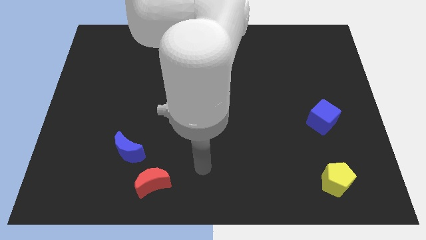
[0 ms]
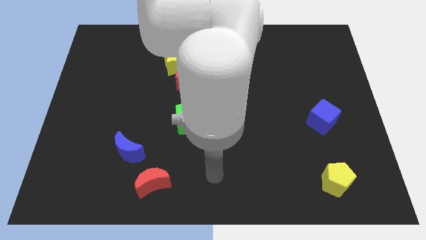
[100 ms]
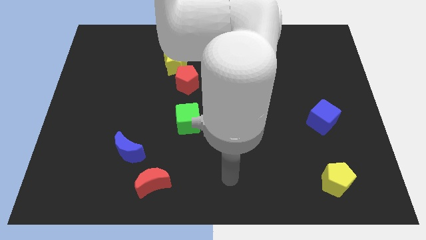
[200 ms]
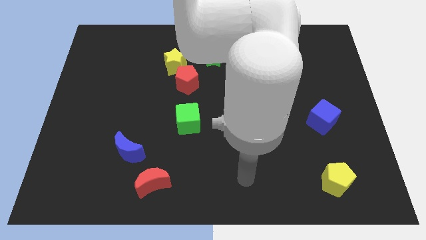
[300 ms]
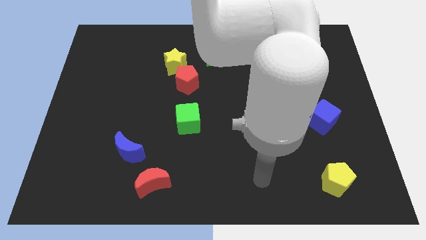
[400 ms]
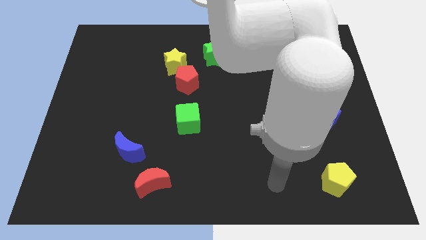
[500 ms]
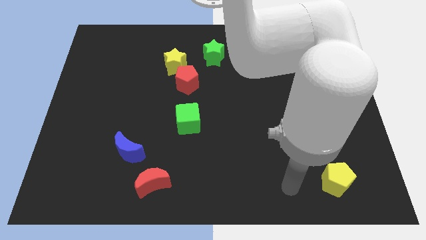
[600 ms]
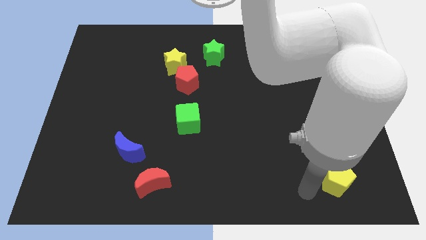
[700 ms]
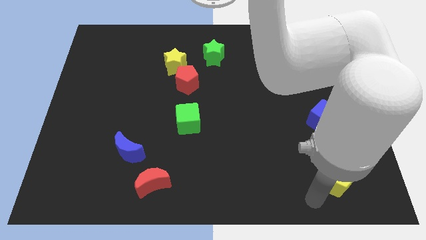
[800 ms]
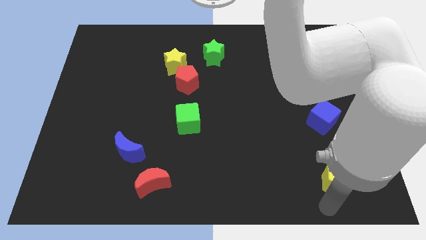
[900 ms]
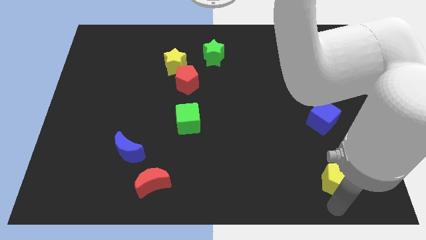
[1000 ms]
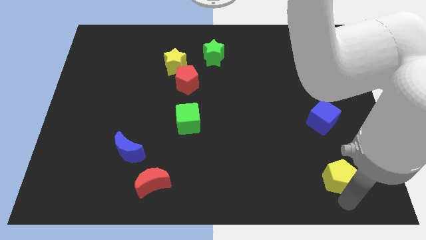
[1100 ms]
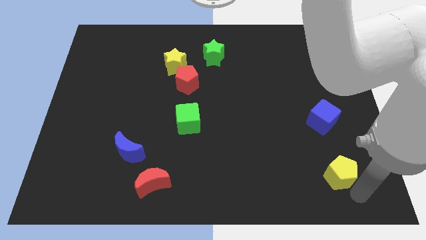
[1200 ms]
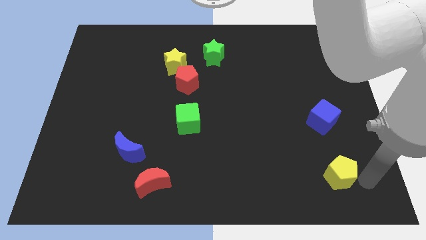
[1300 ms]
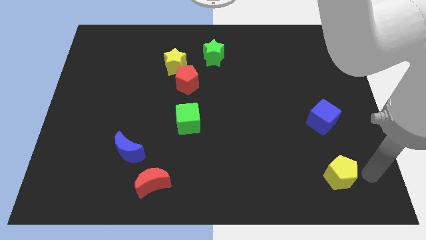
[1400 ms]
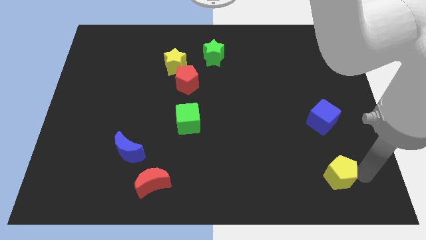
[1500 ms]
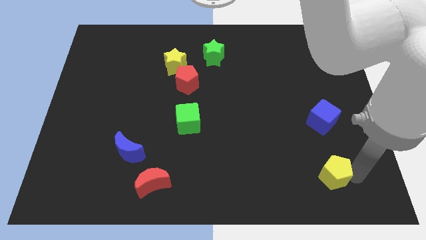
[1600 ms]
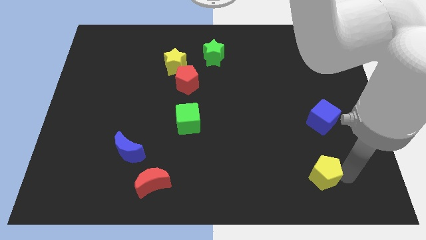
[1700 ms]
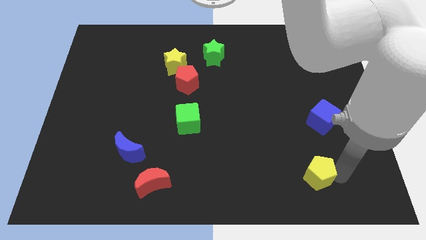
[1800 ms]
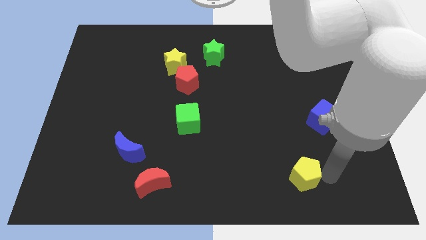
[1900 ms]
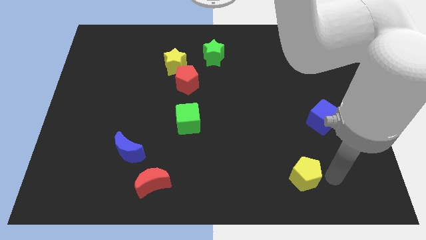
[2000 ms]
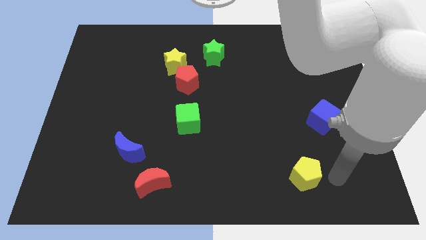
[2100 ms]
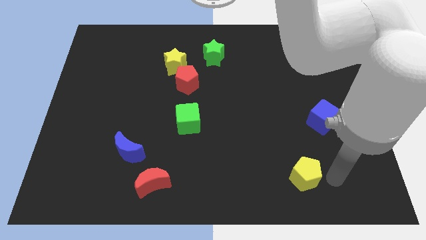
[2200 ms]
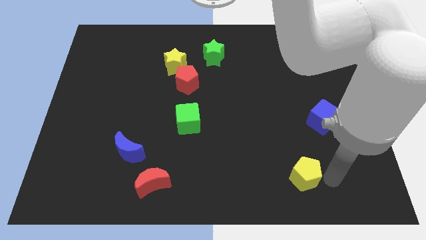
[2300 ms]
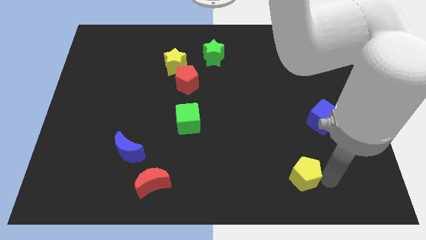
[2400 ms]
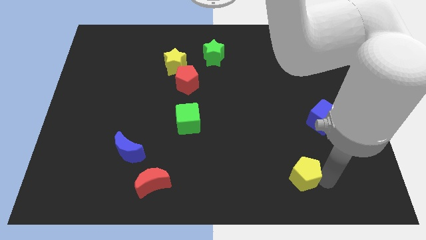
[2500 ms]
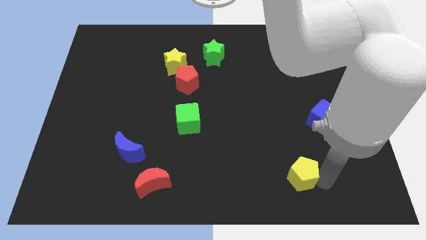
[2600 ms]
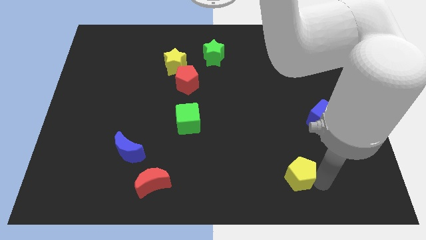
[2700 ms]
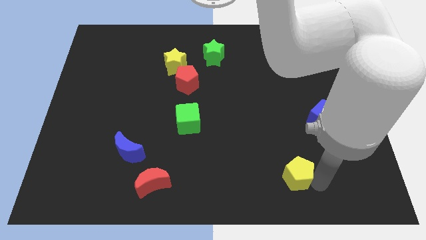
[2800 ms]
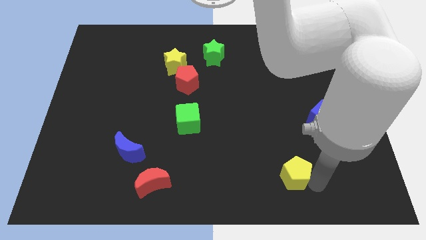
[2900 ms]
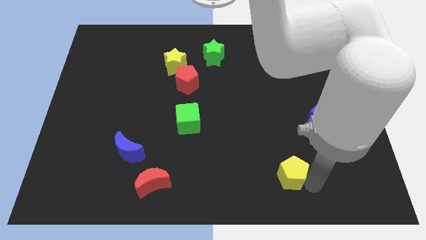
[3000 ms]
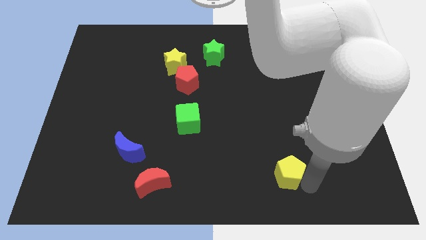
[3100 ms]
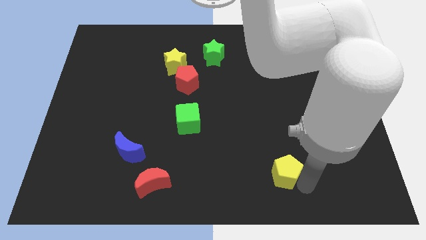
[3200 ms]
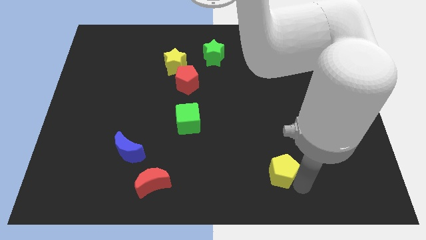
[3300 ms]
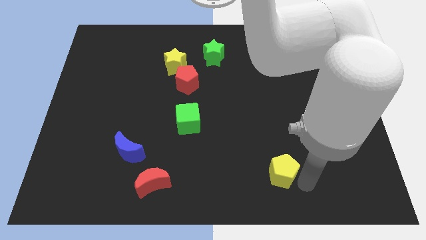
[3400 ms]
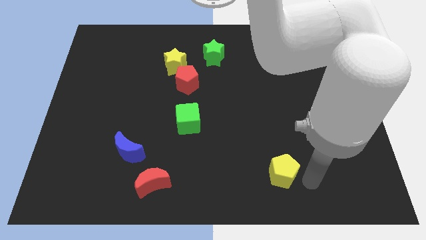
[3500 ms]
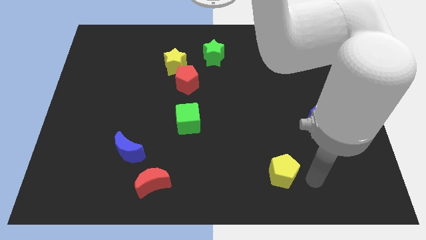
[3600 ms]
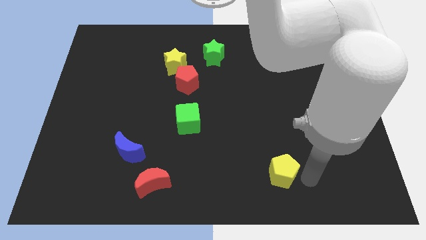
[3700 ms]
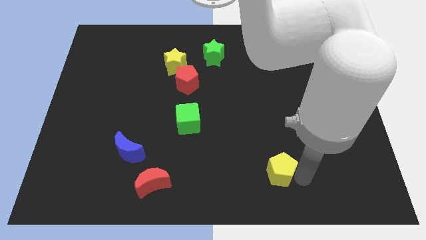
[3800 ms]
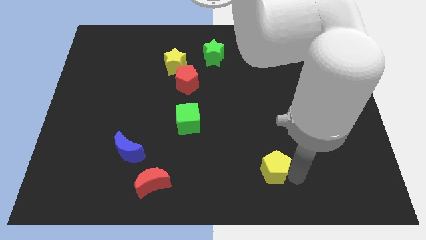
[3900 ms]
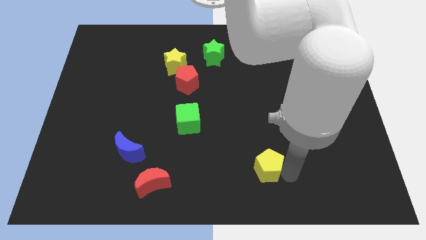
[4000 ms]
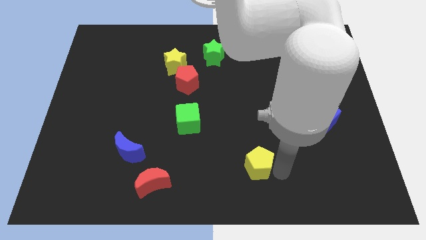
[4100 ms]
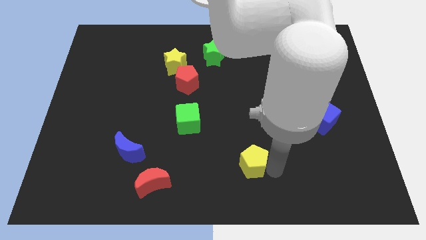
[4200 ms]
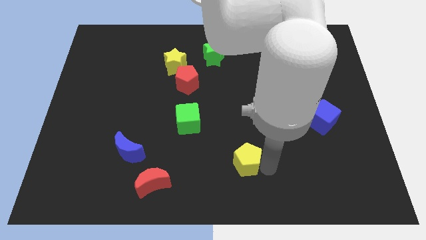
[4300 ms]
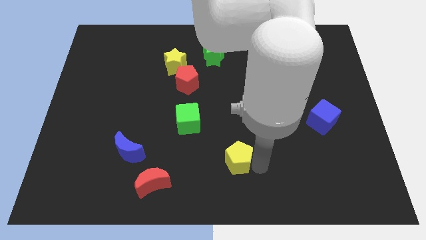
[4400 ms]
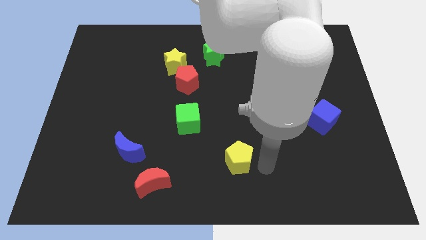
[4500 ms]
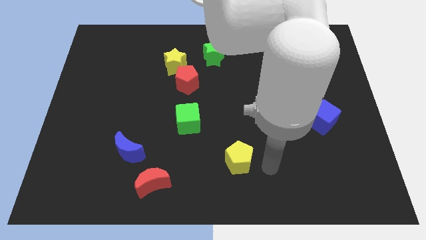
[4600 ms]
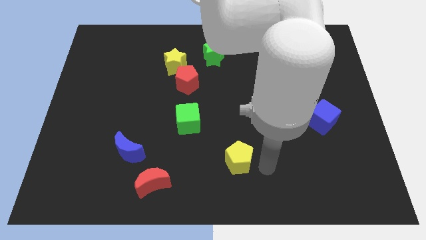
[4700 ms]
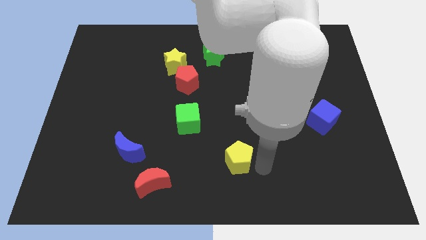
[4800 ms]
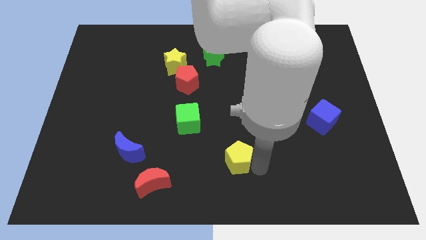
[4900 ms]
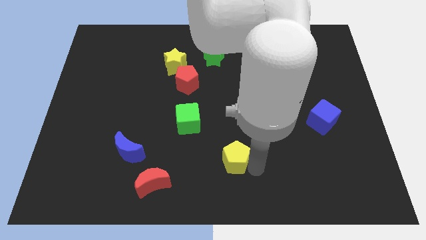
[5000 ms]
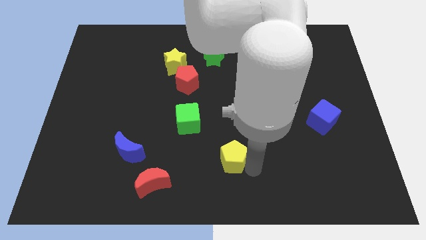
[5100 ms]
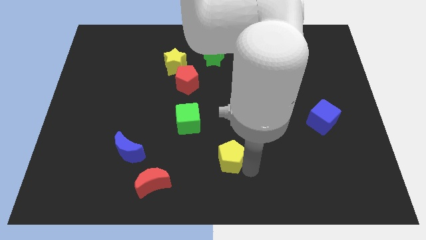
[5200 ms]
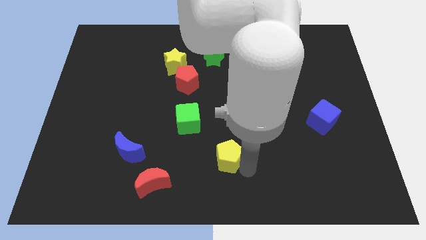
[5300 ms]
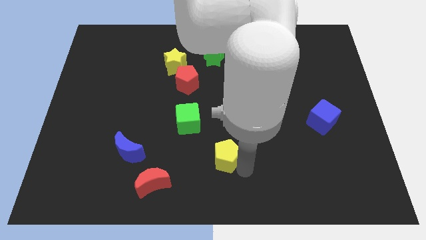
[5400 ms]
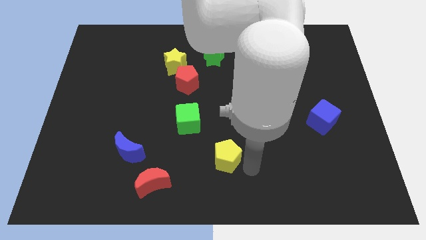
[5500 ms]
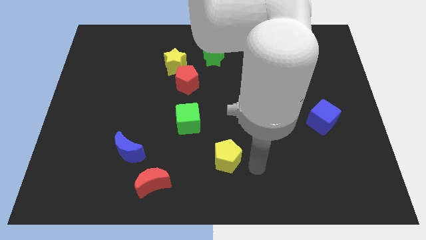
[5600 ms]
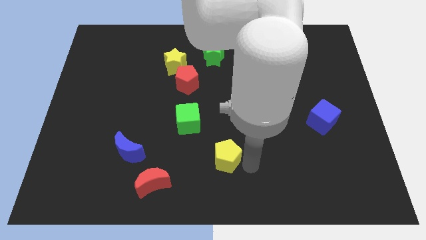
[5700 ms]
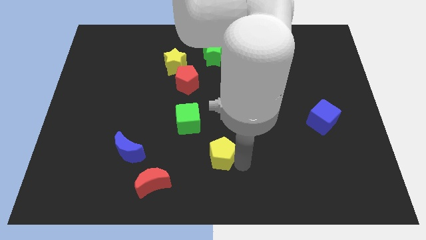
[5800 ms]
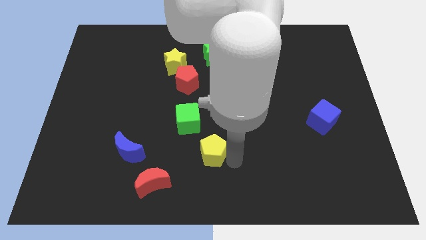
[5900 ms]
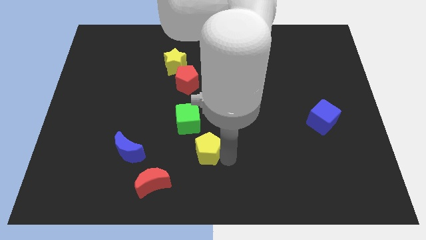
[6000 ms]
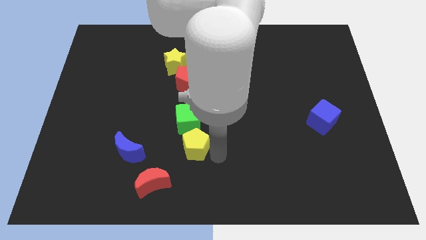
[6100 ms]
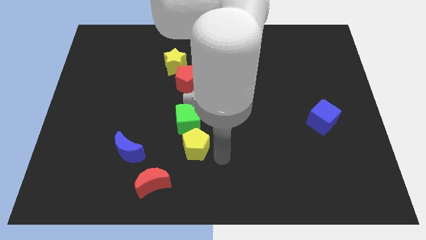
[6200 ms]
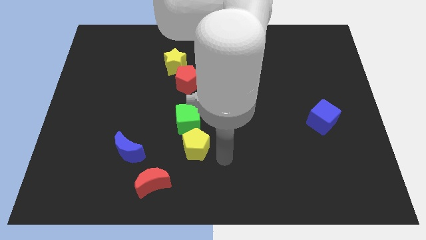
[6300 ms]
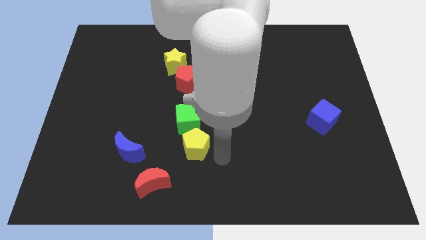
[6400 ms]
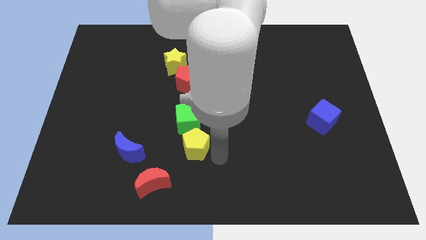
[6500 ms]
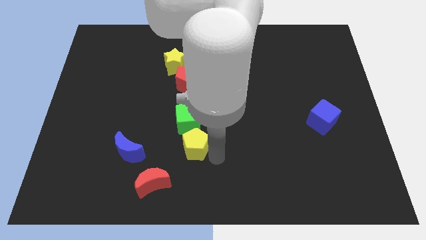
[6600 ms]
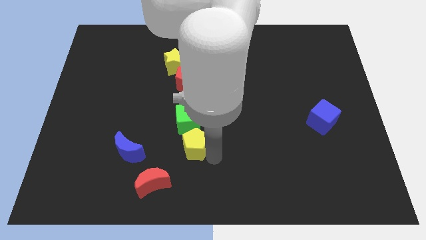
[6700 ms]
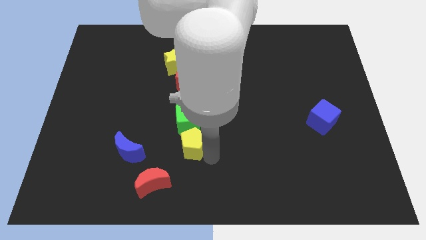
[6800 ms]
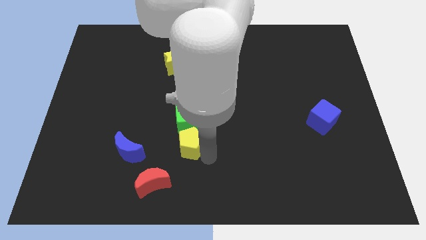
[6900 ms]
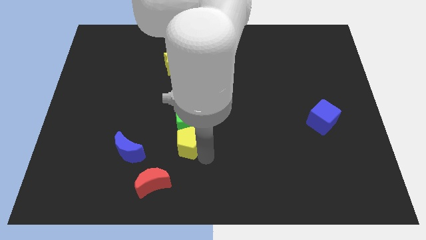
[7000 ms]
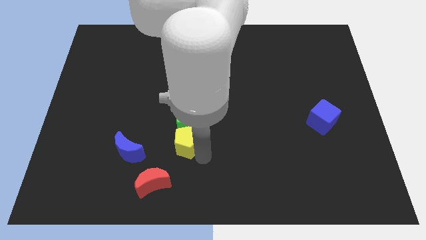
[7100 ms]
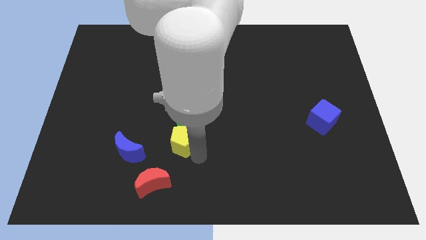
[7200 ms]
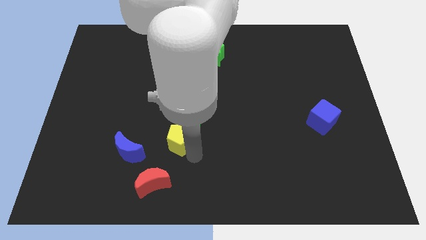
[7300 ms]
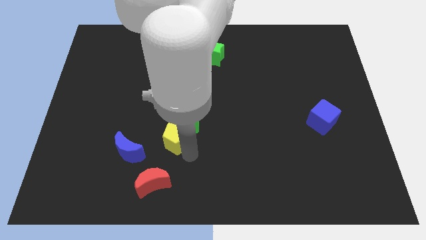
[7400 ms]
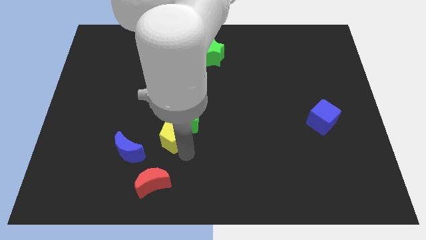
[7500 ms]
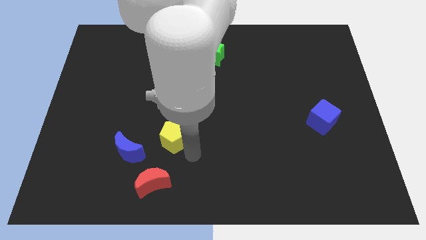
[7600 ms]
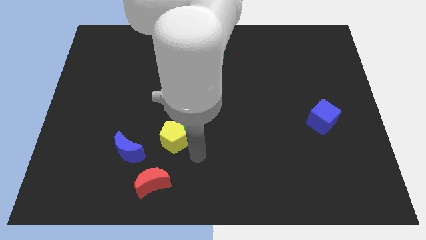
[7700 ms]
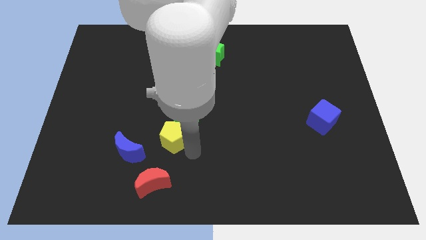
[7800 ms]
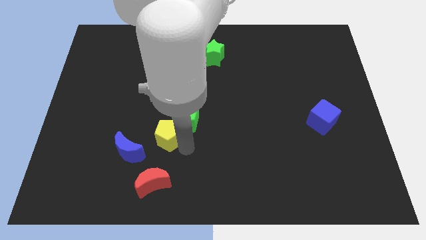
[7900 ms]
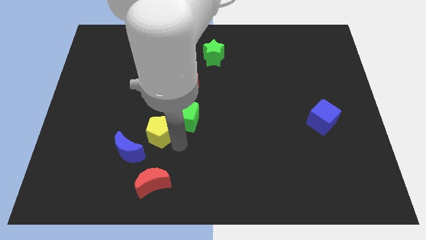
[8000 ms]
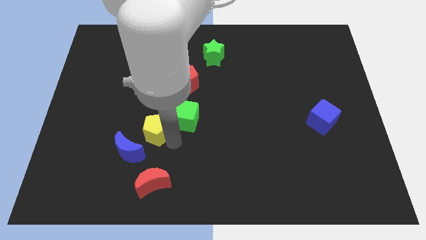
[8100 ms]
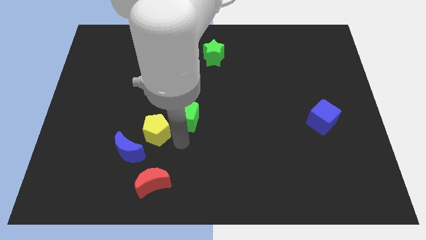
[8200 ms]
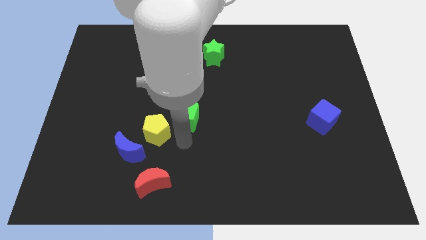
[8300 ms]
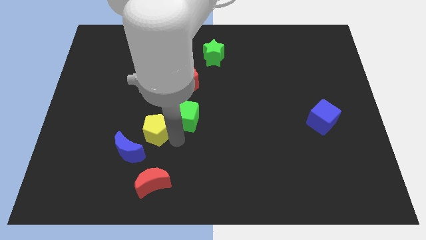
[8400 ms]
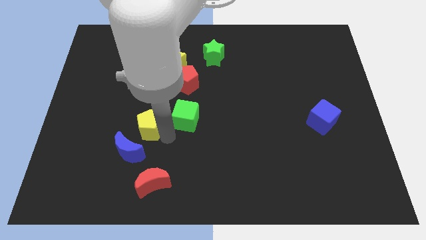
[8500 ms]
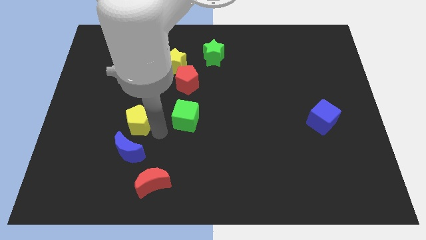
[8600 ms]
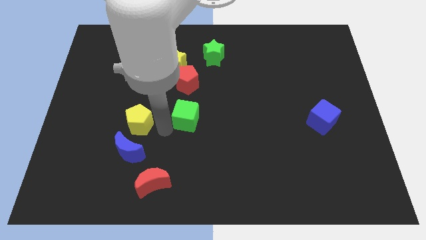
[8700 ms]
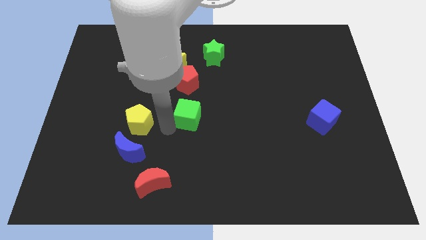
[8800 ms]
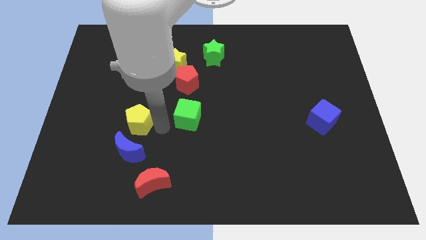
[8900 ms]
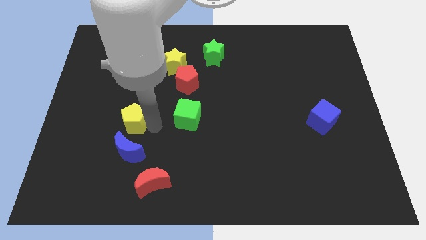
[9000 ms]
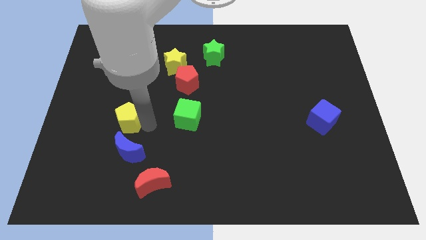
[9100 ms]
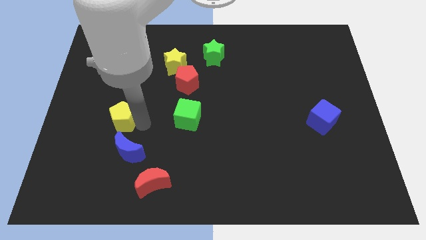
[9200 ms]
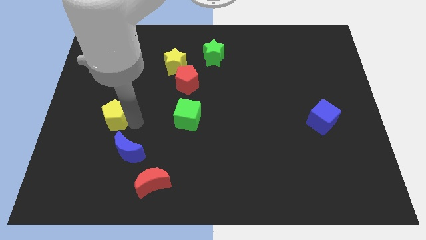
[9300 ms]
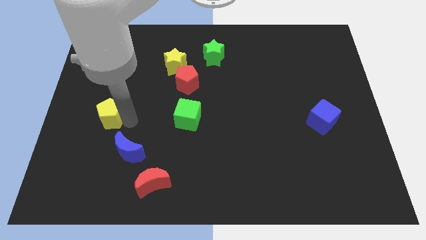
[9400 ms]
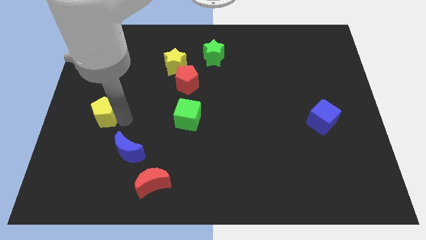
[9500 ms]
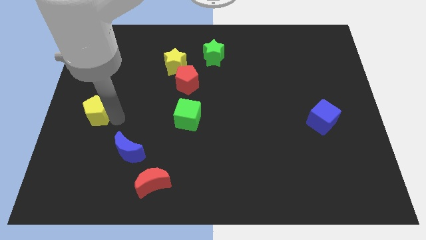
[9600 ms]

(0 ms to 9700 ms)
push the yellow pentagon to the left side of the board
